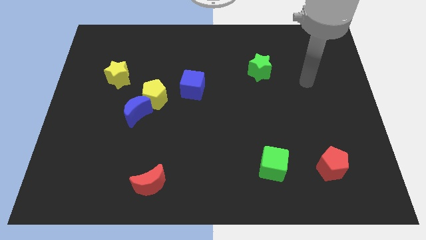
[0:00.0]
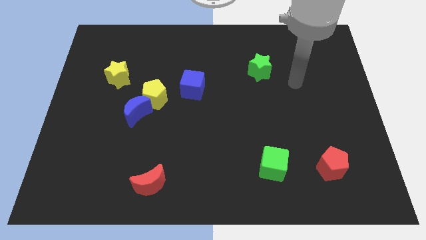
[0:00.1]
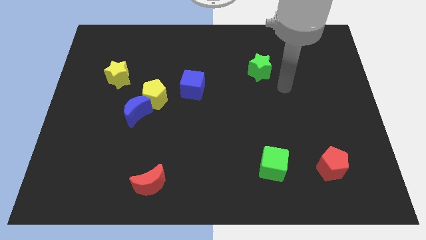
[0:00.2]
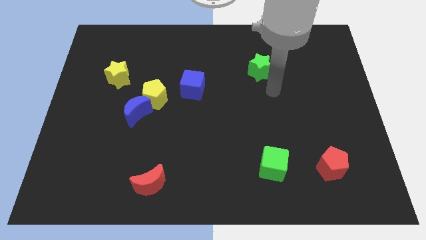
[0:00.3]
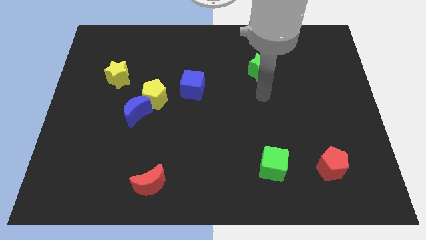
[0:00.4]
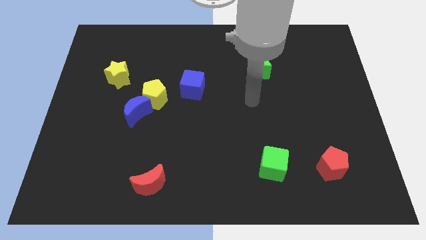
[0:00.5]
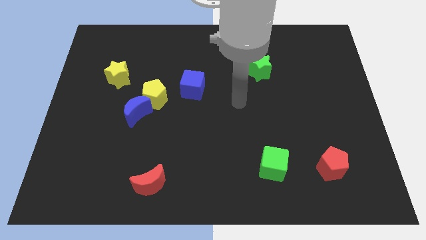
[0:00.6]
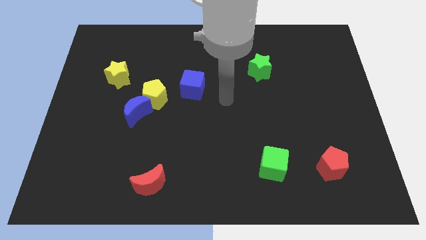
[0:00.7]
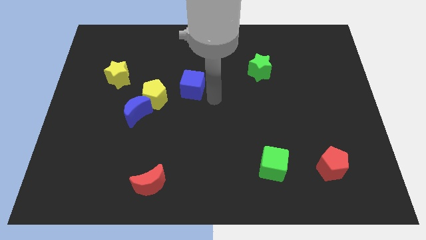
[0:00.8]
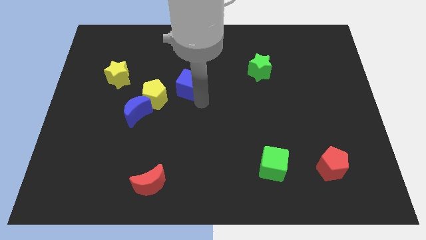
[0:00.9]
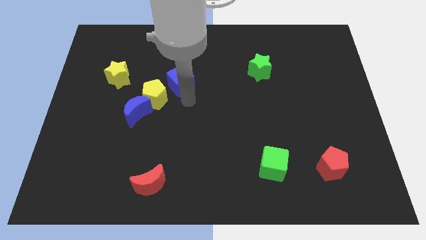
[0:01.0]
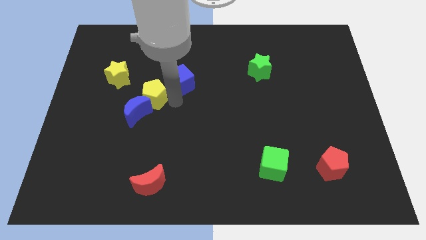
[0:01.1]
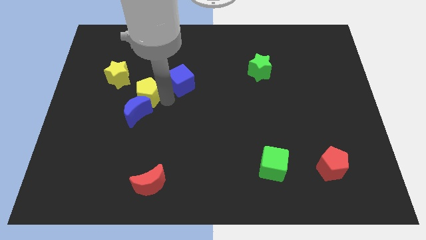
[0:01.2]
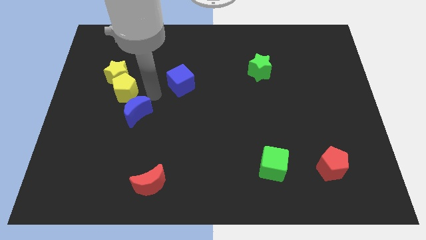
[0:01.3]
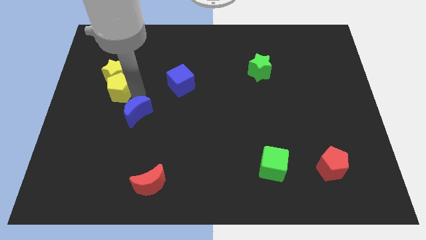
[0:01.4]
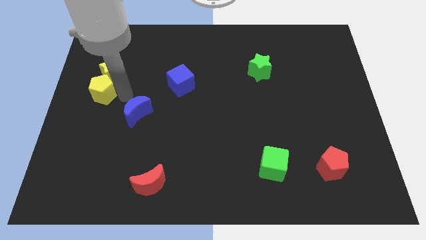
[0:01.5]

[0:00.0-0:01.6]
separate the blue moon from the yellow pentagon

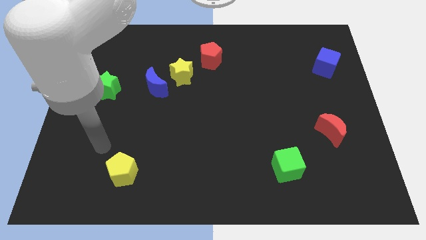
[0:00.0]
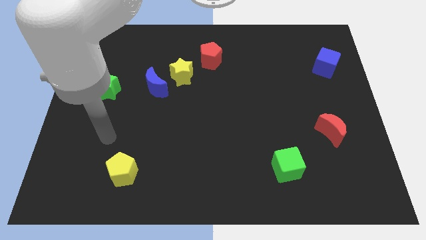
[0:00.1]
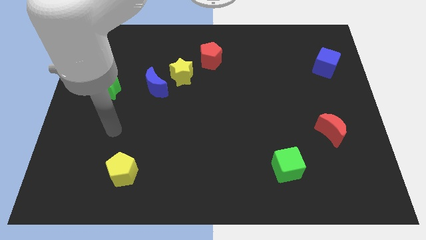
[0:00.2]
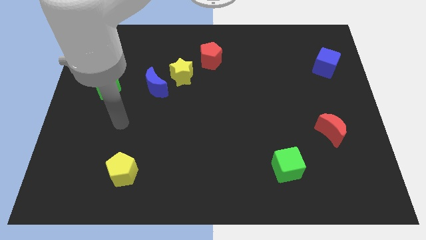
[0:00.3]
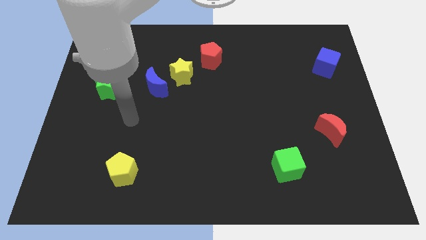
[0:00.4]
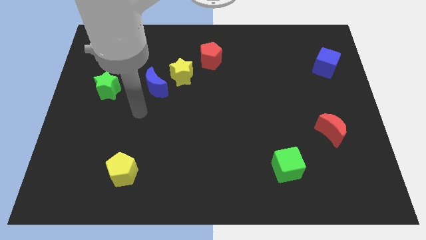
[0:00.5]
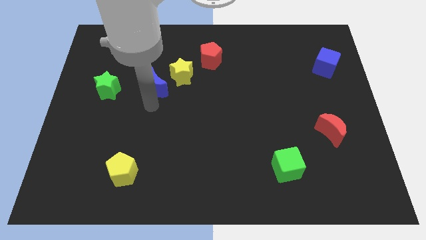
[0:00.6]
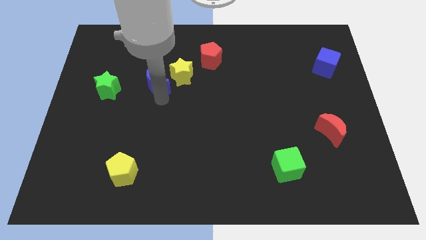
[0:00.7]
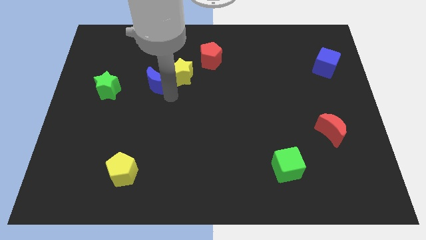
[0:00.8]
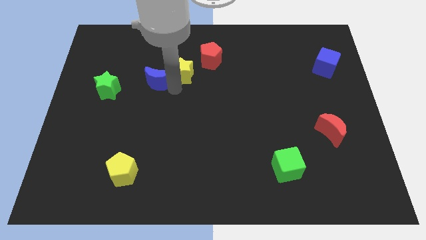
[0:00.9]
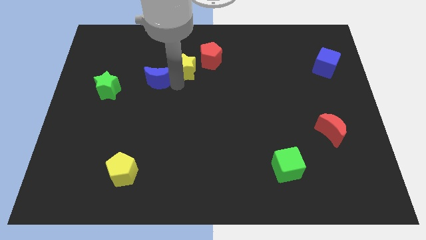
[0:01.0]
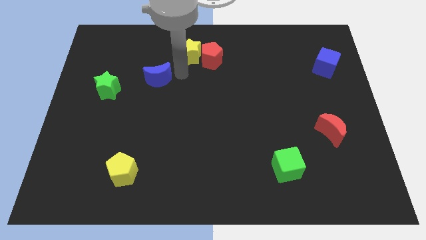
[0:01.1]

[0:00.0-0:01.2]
separate the blue moon from the yellow star

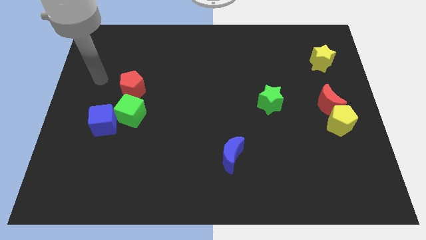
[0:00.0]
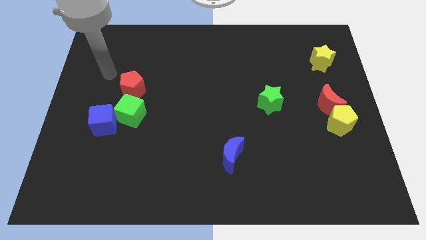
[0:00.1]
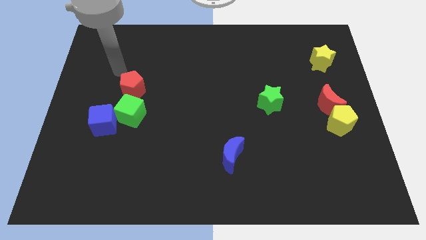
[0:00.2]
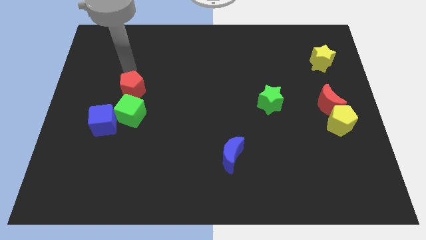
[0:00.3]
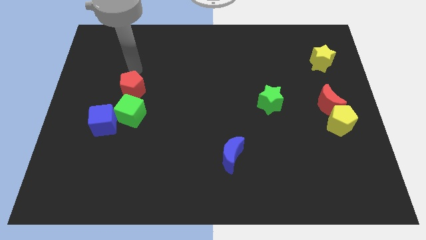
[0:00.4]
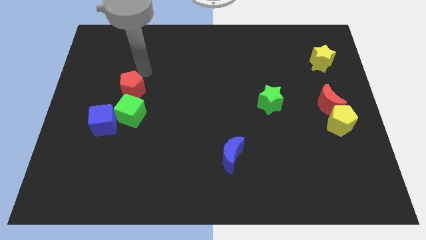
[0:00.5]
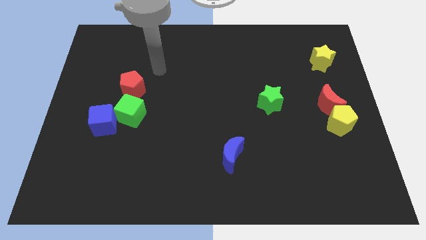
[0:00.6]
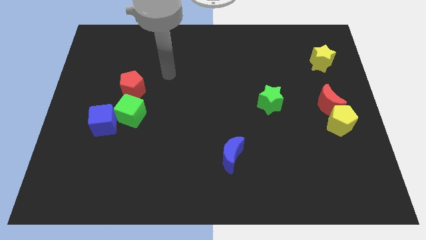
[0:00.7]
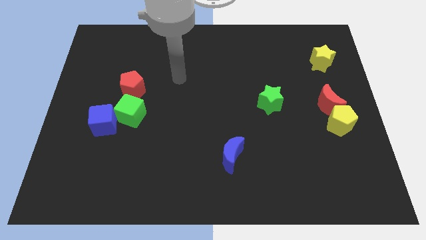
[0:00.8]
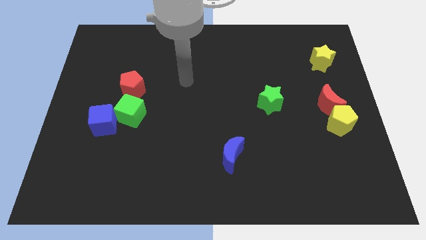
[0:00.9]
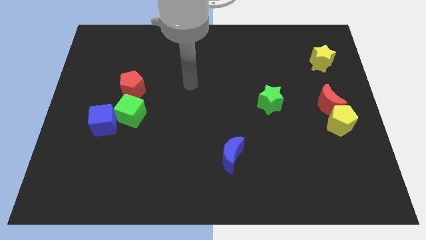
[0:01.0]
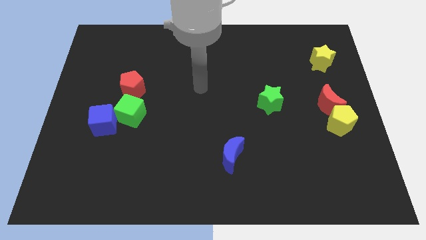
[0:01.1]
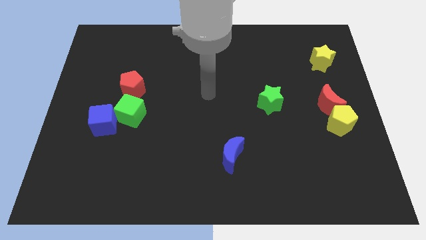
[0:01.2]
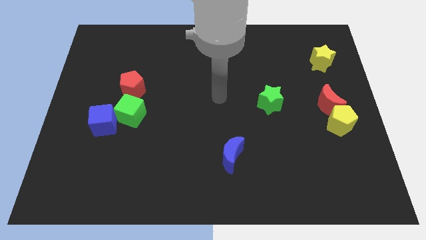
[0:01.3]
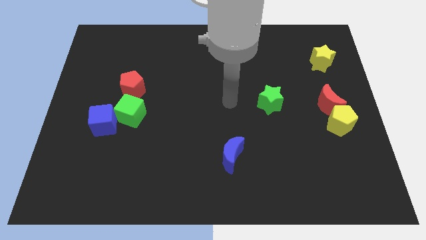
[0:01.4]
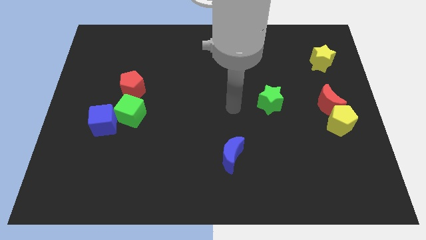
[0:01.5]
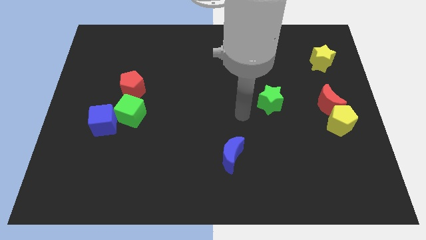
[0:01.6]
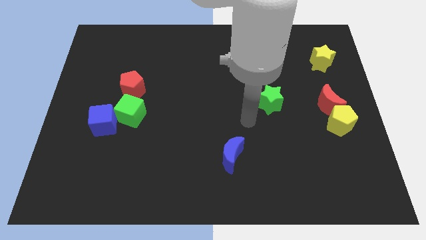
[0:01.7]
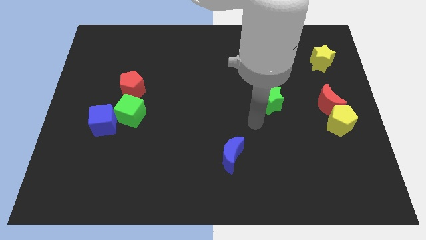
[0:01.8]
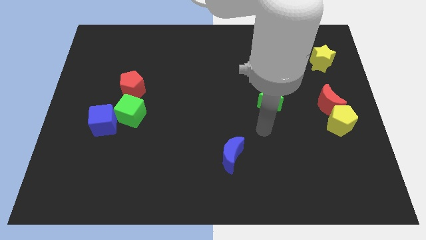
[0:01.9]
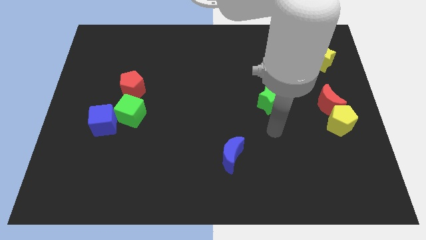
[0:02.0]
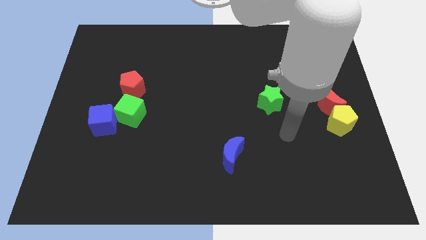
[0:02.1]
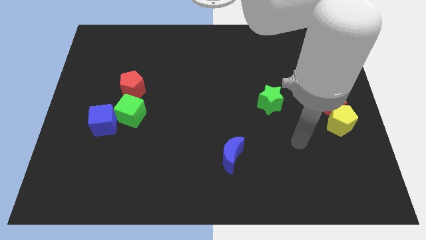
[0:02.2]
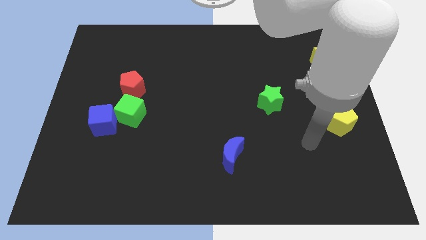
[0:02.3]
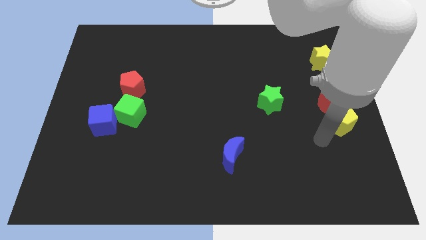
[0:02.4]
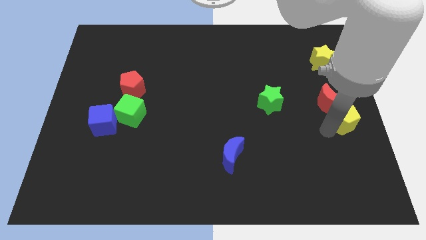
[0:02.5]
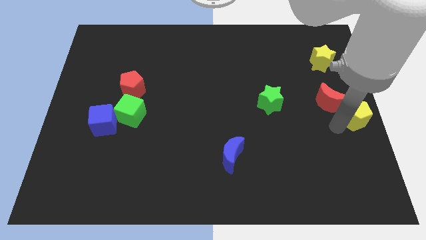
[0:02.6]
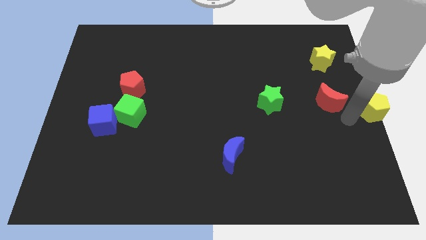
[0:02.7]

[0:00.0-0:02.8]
move the red moon away from the yellow pentagon

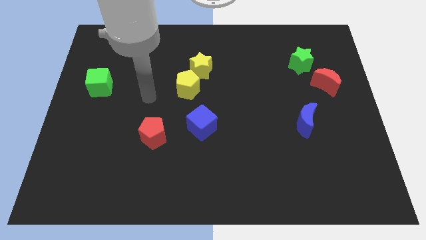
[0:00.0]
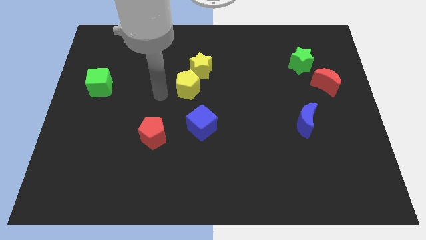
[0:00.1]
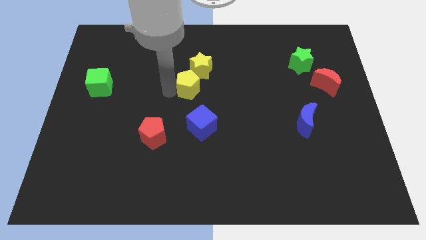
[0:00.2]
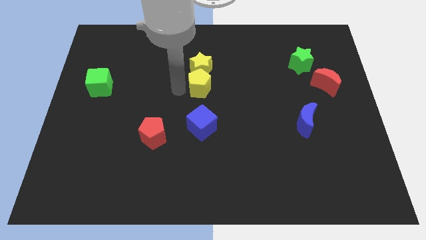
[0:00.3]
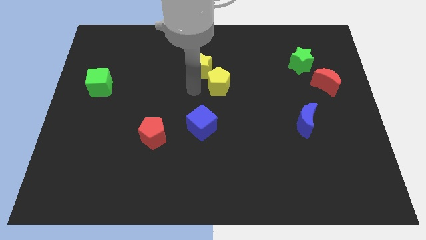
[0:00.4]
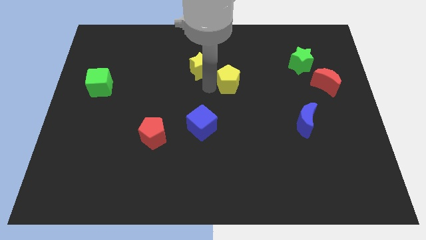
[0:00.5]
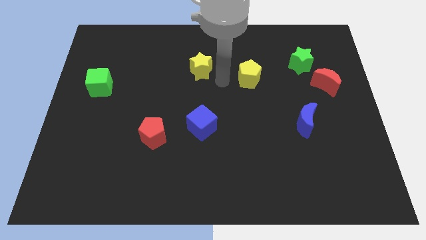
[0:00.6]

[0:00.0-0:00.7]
separate the yellow star from the yellow pentagon

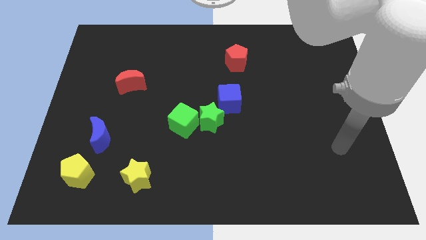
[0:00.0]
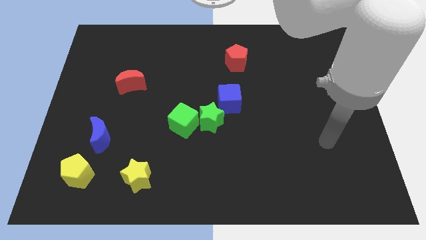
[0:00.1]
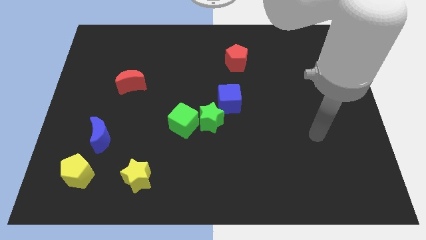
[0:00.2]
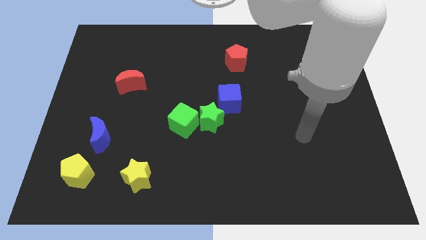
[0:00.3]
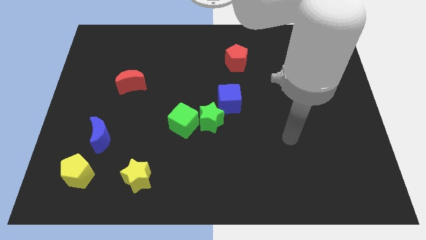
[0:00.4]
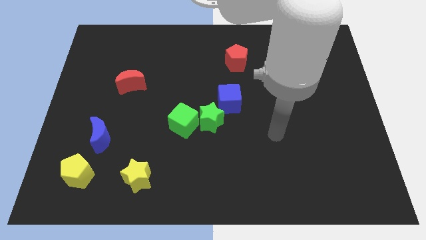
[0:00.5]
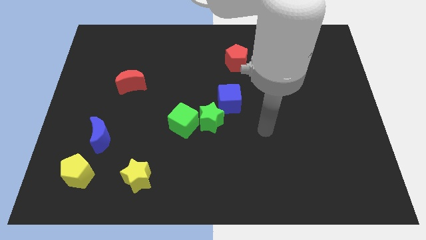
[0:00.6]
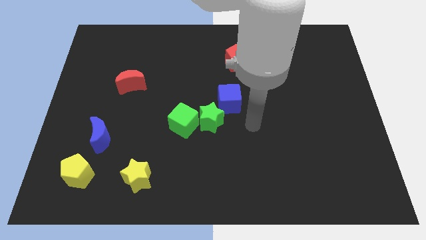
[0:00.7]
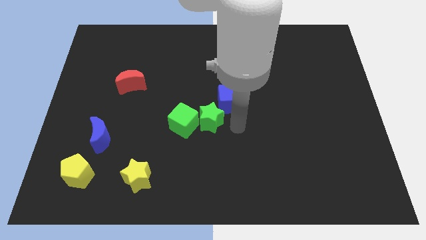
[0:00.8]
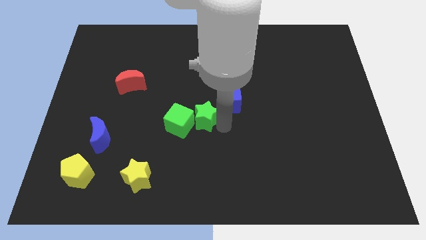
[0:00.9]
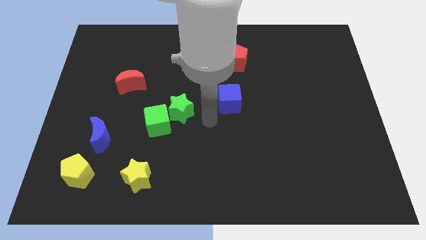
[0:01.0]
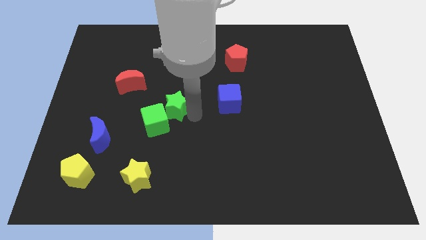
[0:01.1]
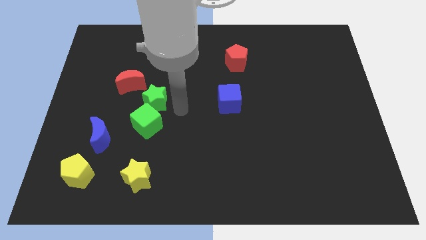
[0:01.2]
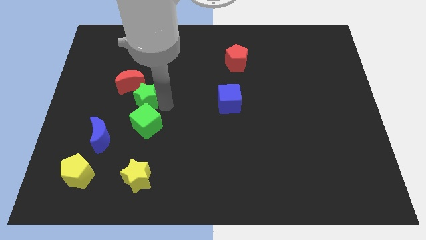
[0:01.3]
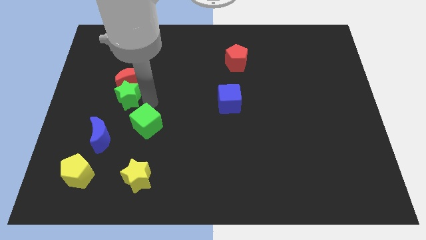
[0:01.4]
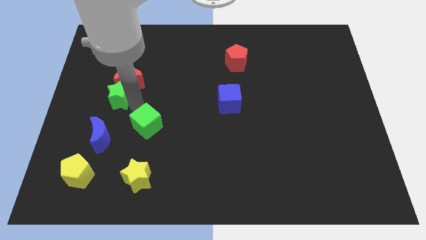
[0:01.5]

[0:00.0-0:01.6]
pull the green cube apart from the green star

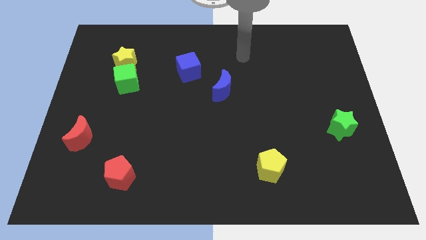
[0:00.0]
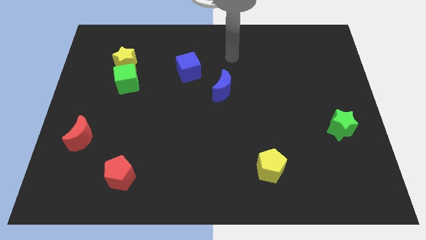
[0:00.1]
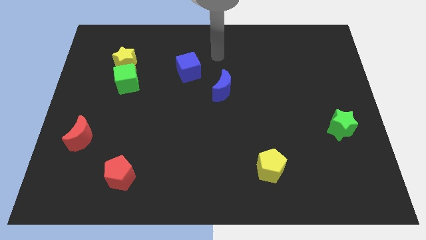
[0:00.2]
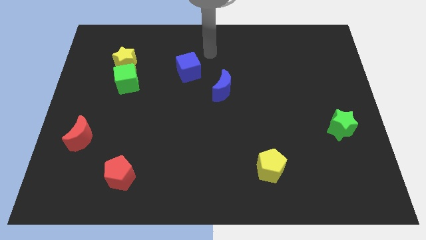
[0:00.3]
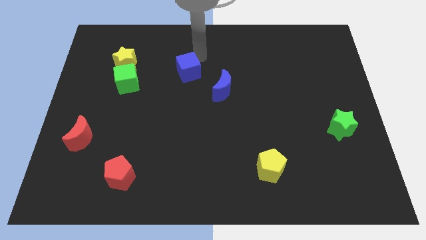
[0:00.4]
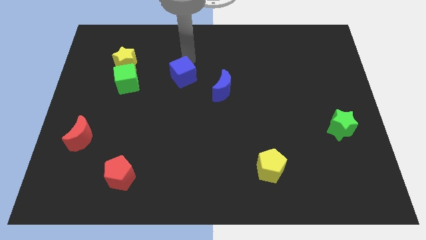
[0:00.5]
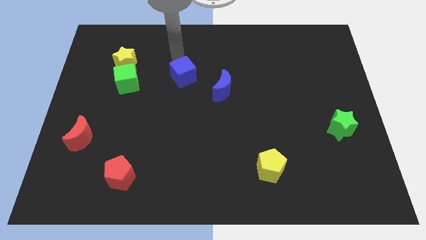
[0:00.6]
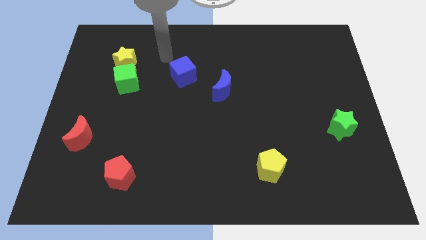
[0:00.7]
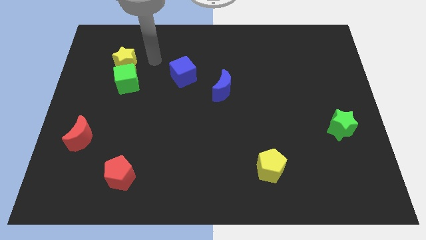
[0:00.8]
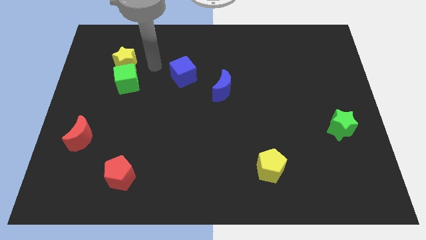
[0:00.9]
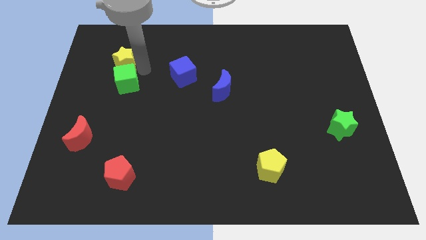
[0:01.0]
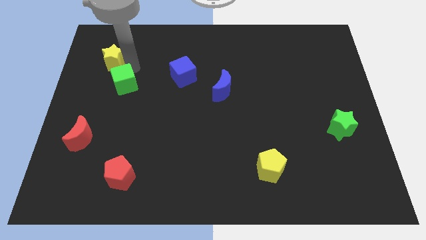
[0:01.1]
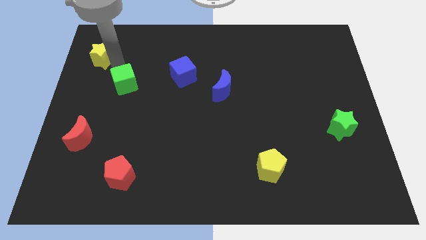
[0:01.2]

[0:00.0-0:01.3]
pull the green cube apart from the yellow star

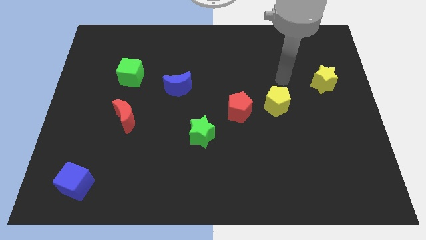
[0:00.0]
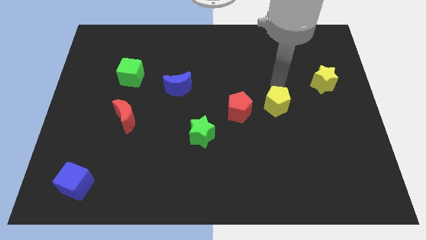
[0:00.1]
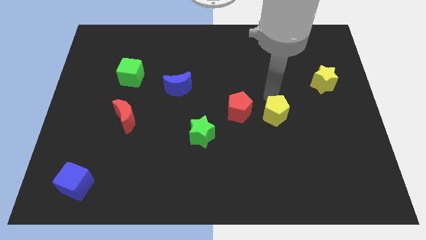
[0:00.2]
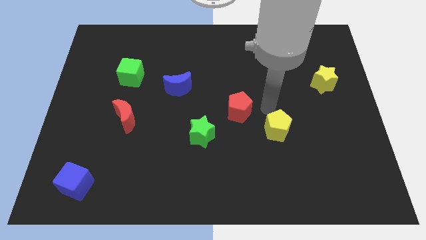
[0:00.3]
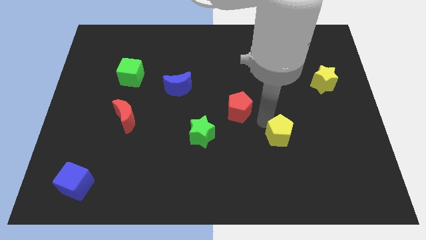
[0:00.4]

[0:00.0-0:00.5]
pull the red pentagon apart from the yellow pentagon
